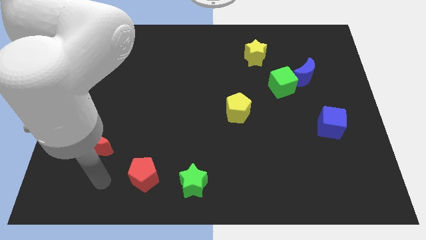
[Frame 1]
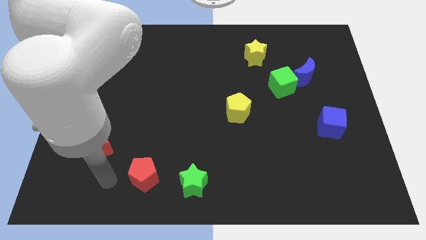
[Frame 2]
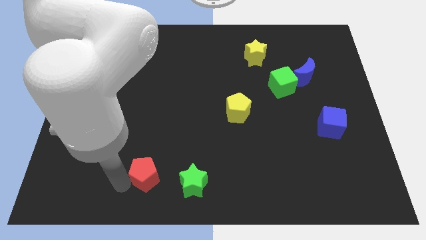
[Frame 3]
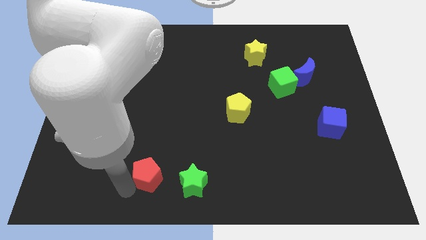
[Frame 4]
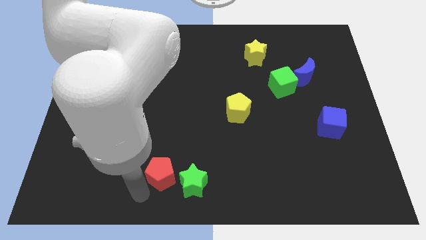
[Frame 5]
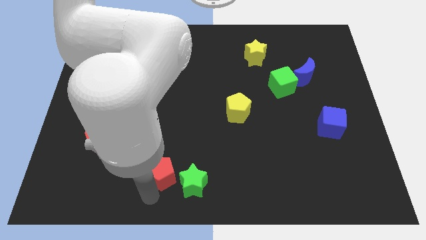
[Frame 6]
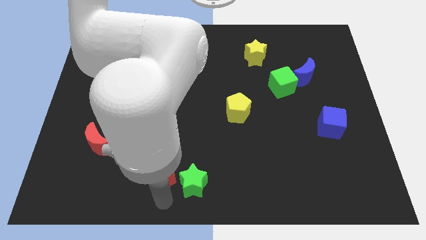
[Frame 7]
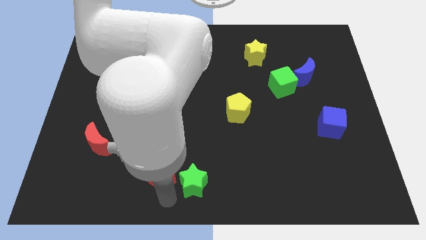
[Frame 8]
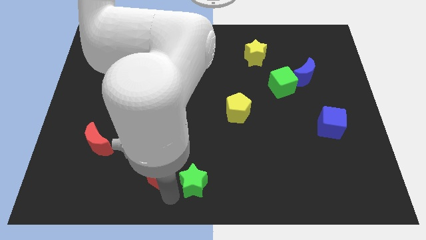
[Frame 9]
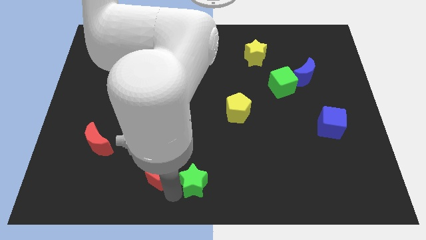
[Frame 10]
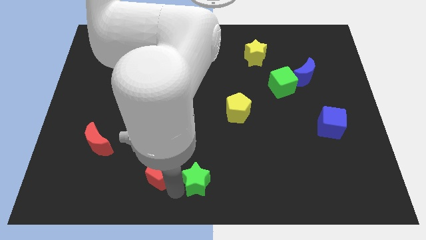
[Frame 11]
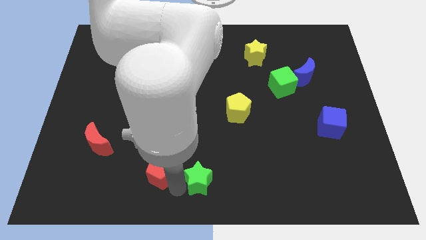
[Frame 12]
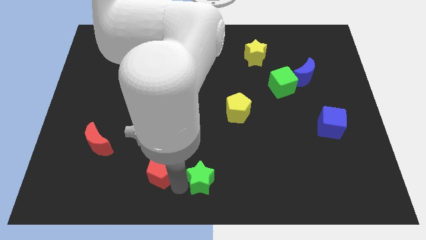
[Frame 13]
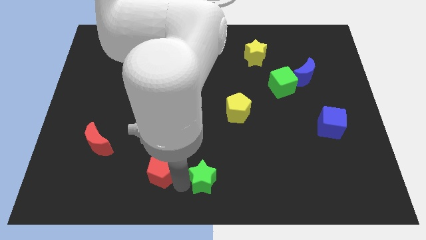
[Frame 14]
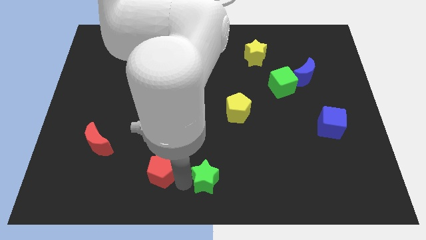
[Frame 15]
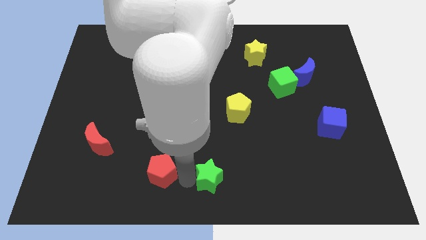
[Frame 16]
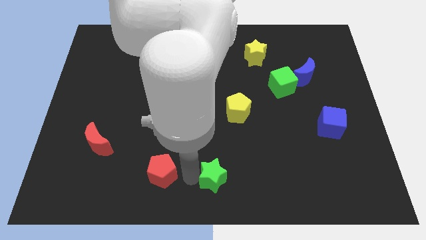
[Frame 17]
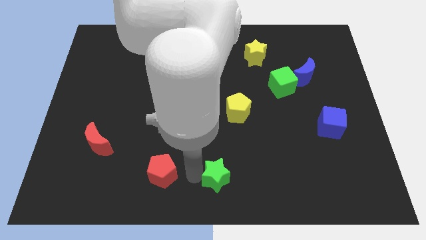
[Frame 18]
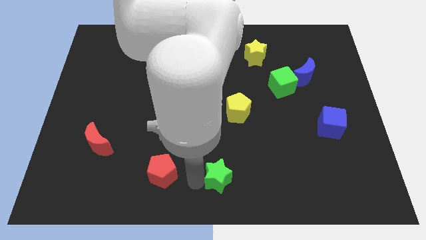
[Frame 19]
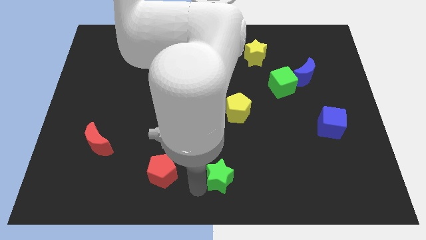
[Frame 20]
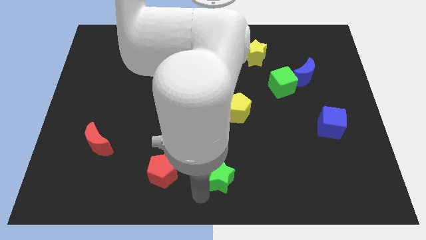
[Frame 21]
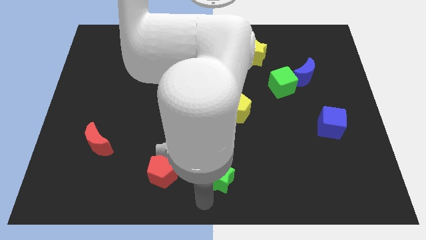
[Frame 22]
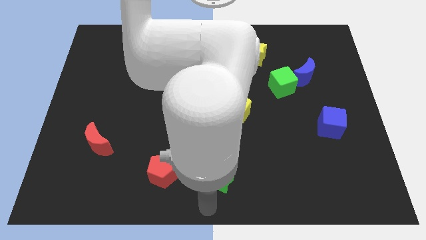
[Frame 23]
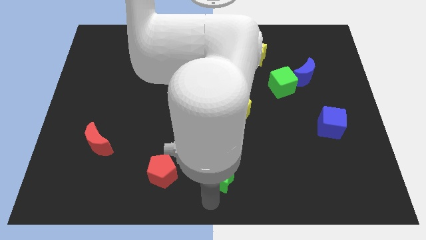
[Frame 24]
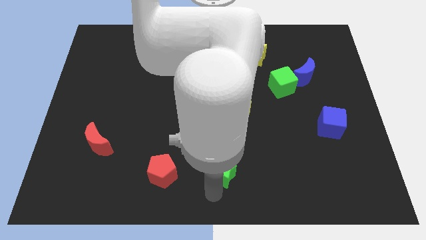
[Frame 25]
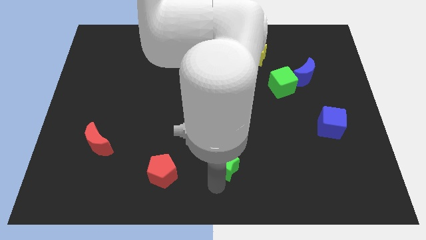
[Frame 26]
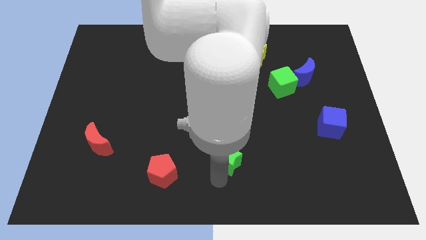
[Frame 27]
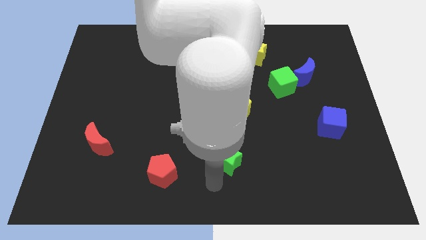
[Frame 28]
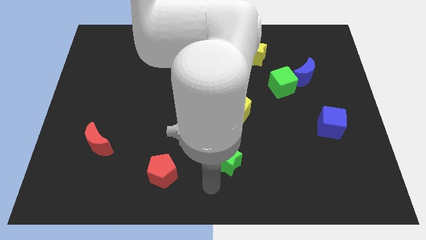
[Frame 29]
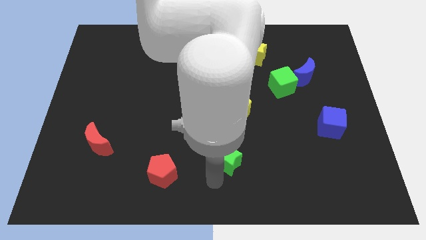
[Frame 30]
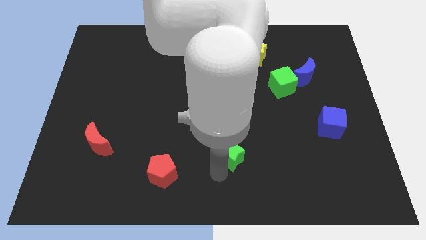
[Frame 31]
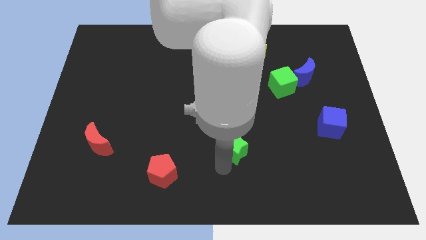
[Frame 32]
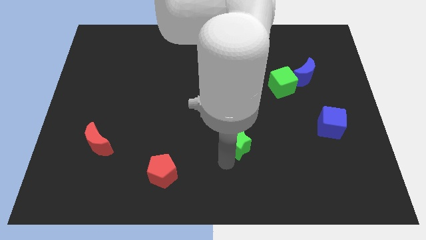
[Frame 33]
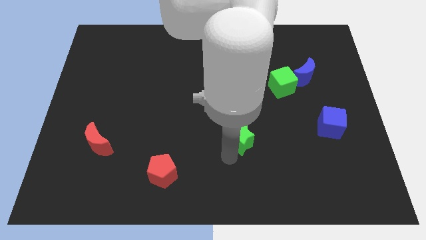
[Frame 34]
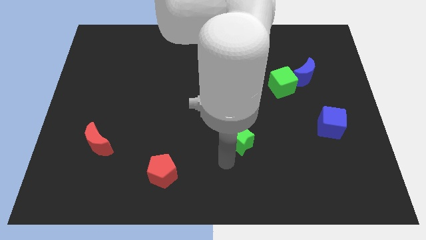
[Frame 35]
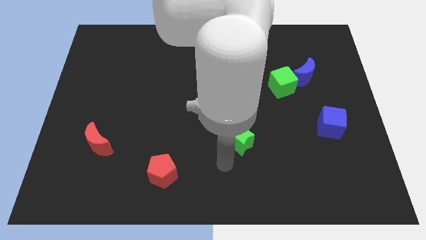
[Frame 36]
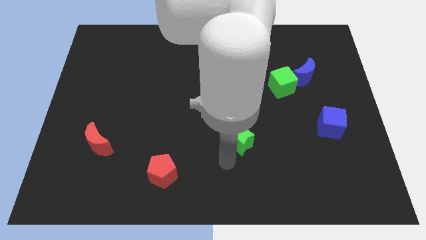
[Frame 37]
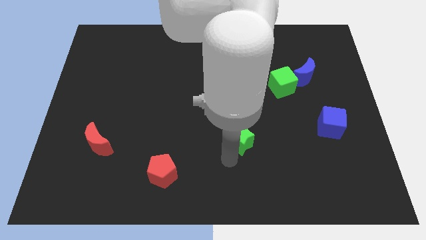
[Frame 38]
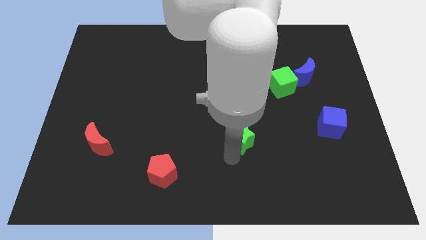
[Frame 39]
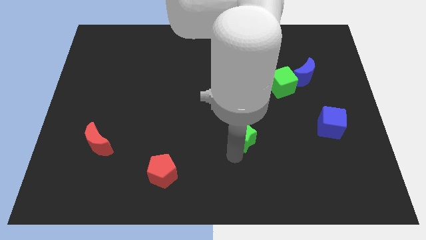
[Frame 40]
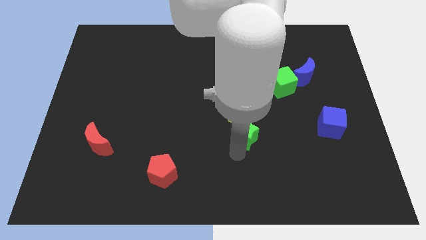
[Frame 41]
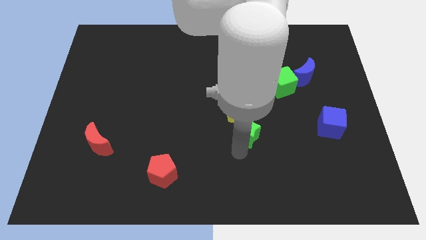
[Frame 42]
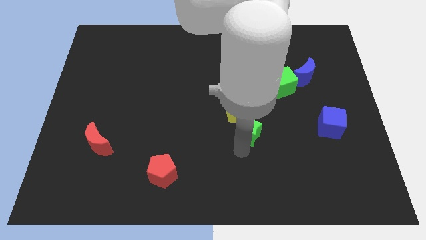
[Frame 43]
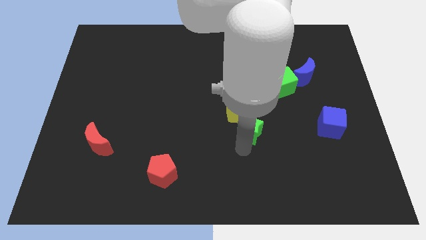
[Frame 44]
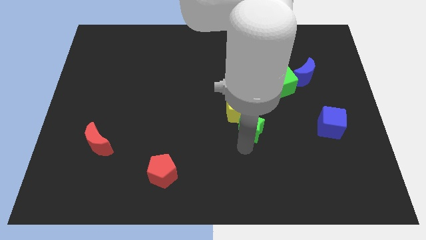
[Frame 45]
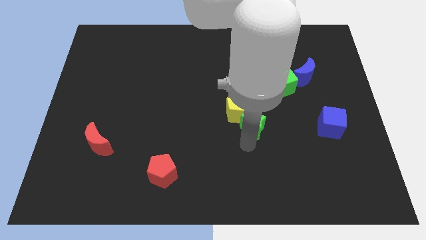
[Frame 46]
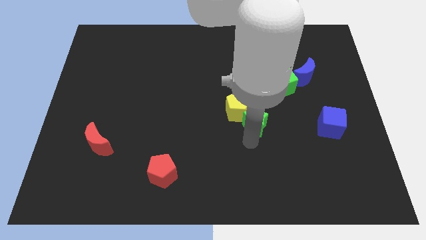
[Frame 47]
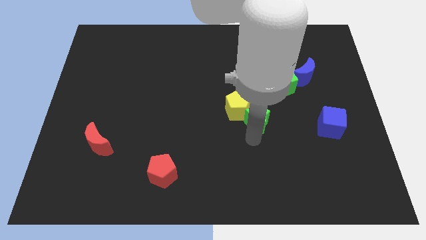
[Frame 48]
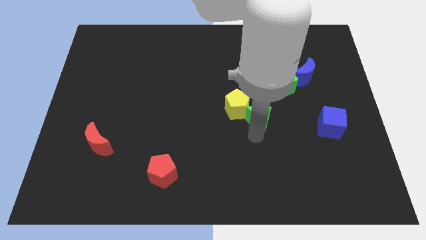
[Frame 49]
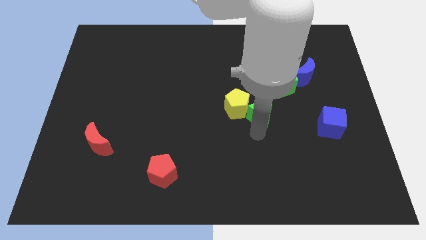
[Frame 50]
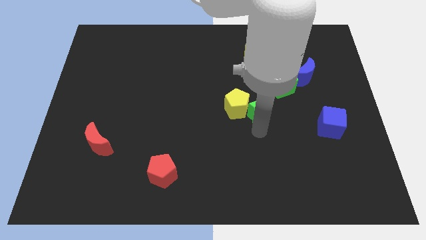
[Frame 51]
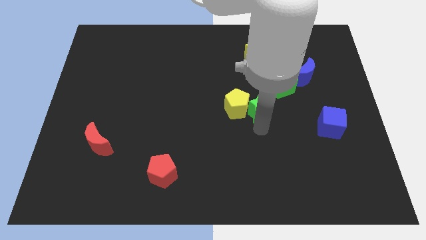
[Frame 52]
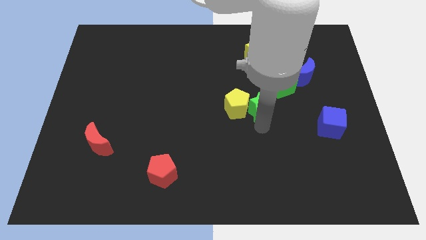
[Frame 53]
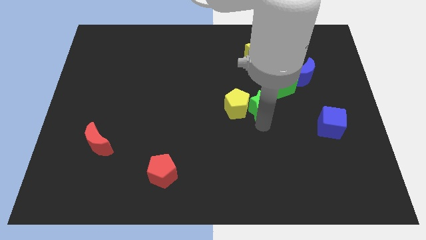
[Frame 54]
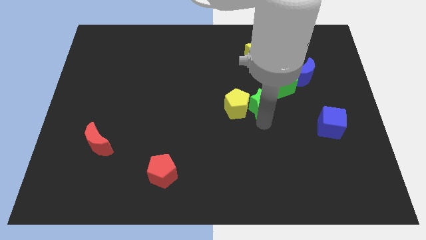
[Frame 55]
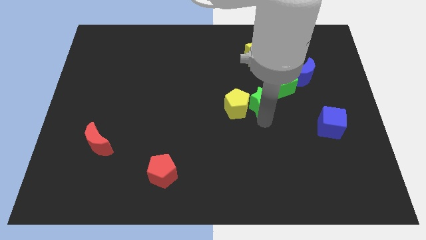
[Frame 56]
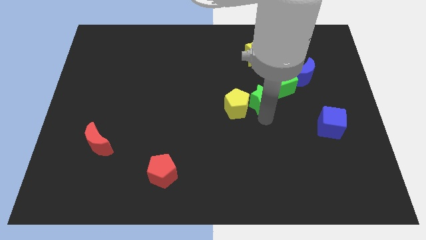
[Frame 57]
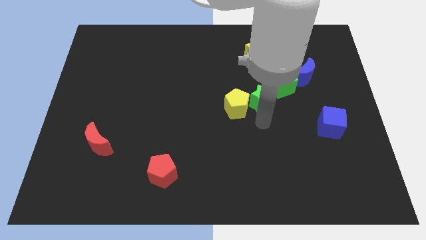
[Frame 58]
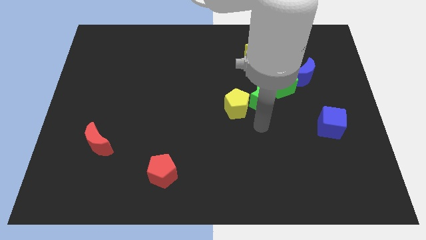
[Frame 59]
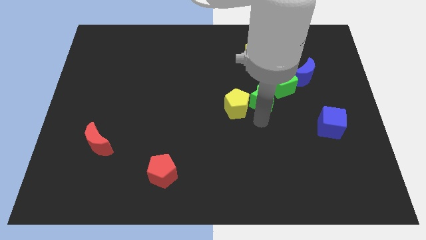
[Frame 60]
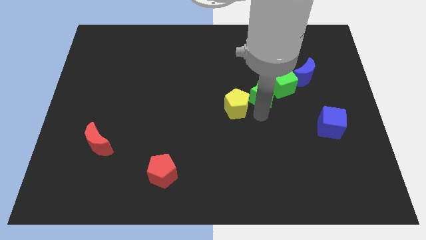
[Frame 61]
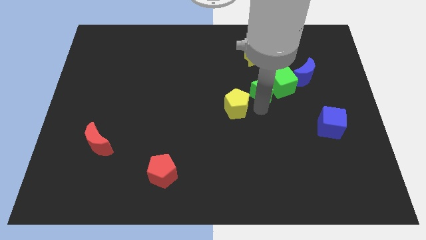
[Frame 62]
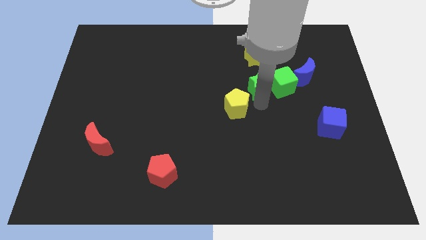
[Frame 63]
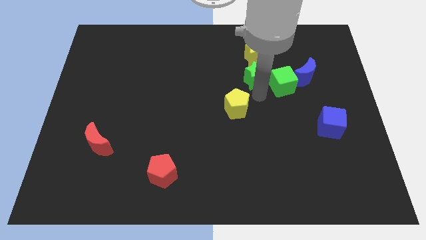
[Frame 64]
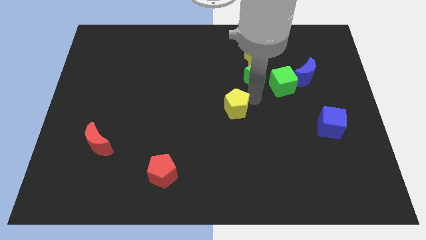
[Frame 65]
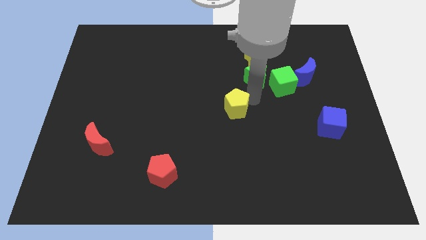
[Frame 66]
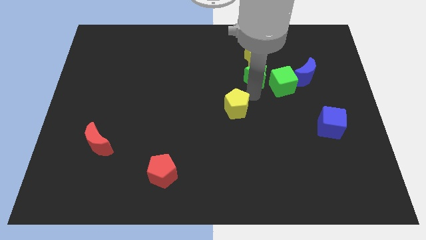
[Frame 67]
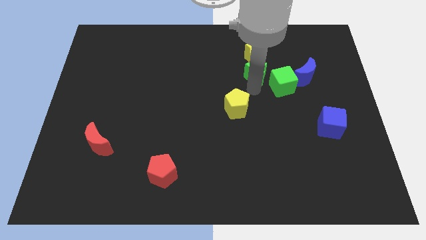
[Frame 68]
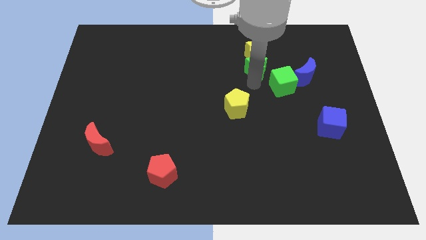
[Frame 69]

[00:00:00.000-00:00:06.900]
move the green star next to the yellow star
